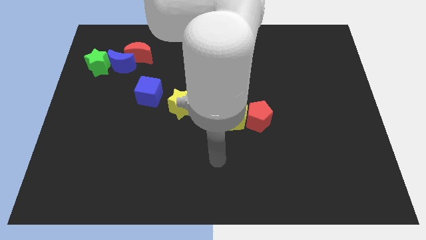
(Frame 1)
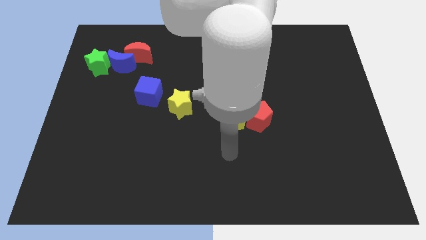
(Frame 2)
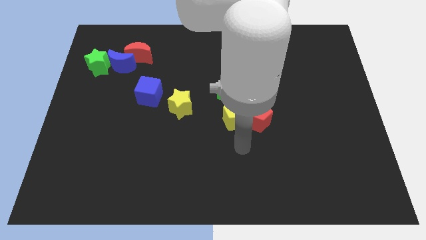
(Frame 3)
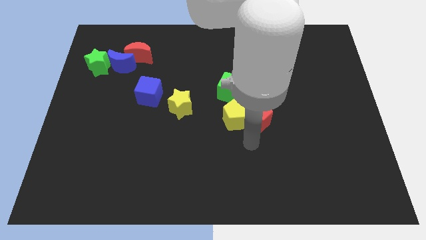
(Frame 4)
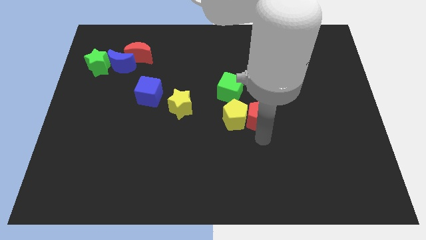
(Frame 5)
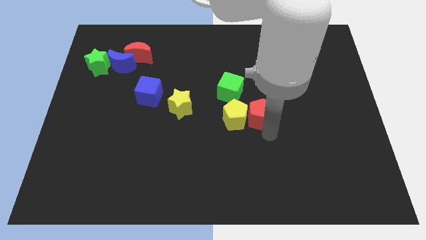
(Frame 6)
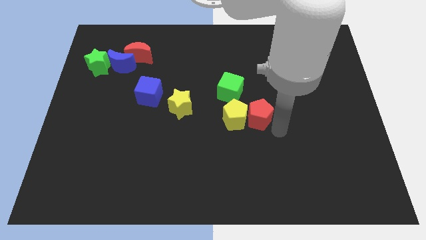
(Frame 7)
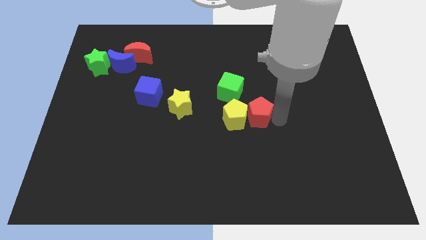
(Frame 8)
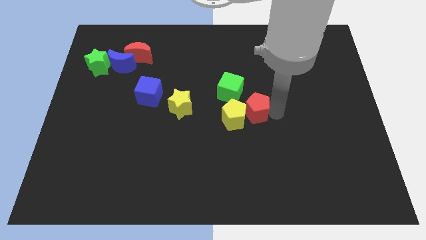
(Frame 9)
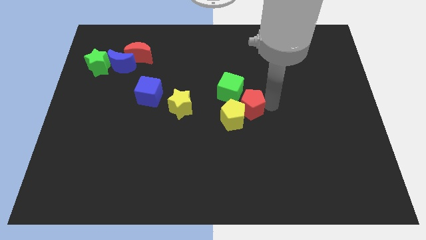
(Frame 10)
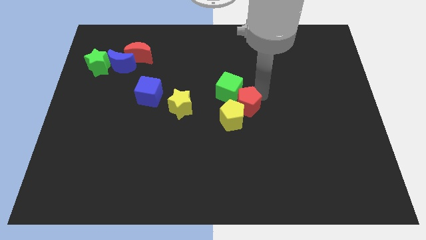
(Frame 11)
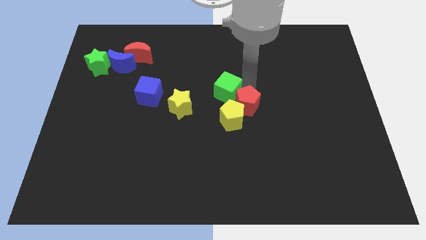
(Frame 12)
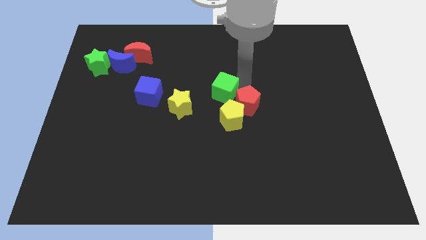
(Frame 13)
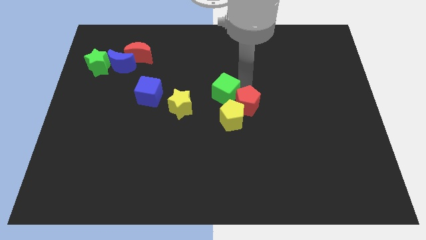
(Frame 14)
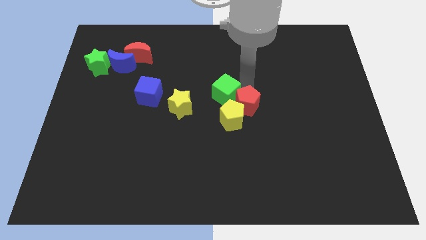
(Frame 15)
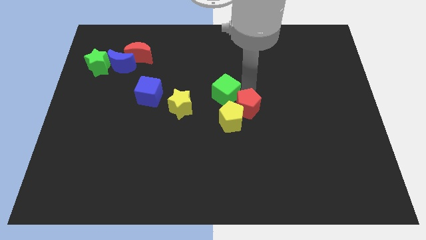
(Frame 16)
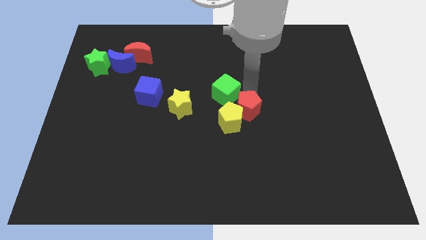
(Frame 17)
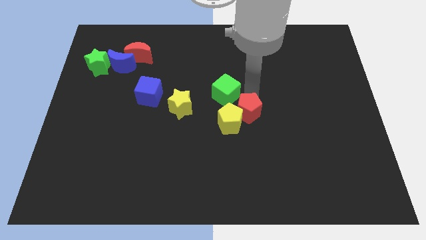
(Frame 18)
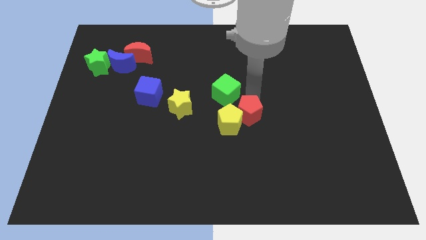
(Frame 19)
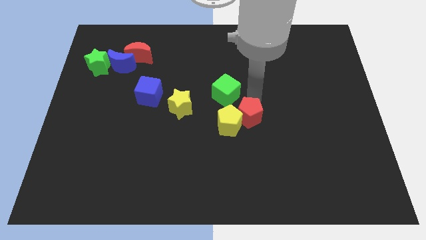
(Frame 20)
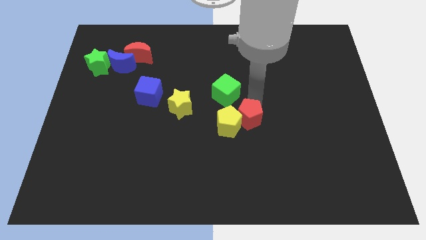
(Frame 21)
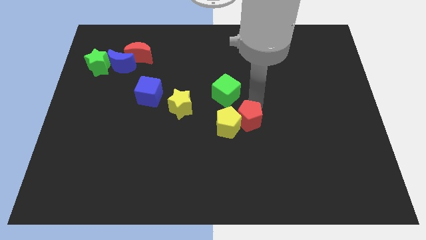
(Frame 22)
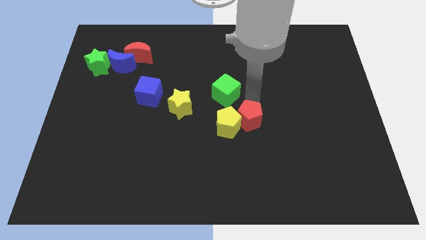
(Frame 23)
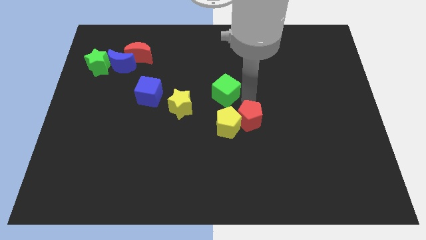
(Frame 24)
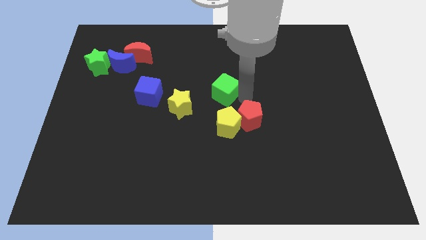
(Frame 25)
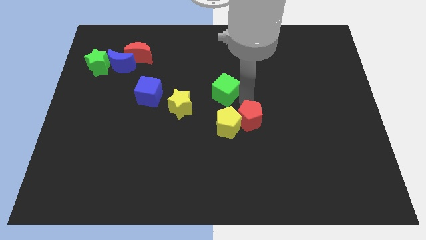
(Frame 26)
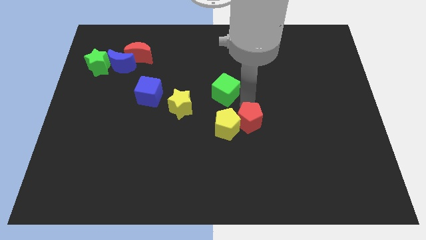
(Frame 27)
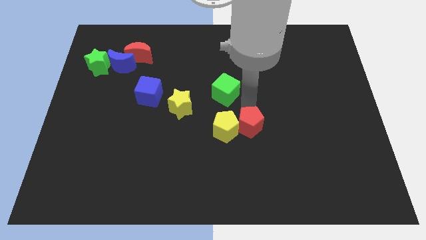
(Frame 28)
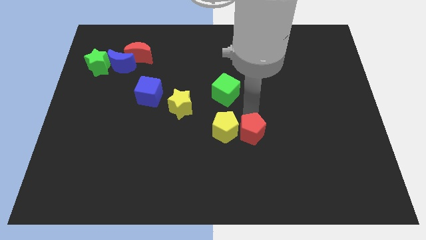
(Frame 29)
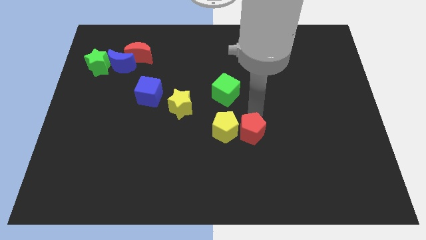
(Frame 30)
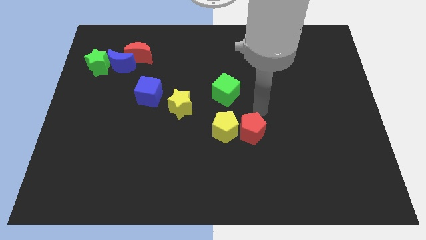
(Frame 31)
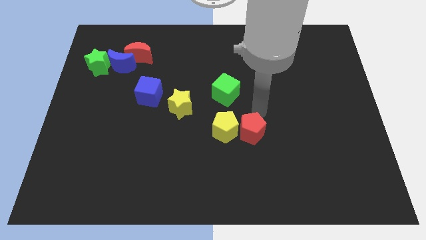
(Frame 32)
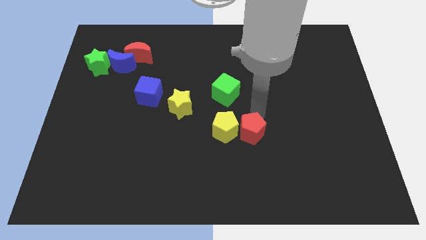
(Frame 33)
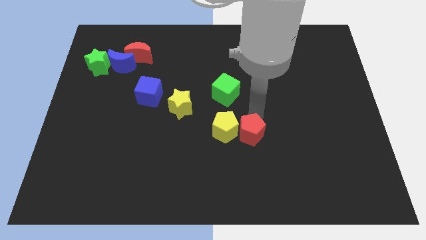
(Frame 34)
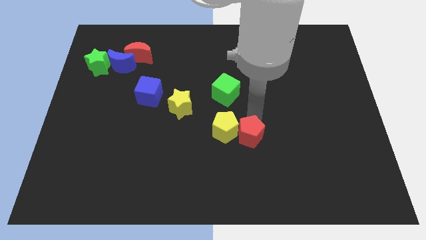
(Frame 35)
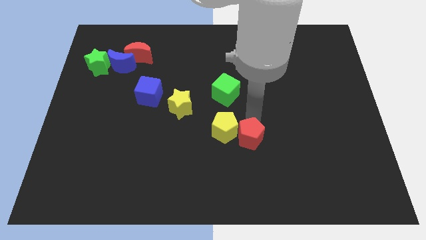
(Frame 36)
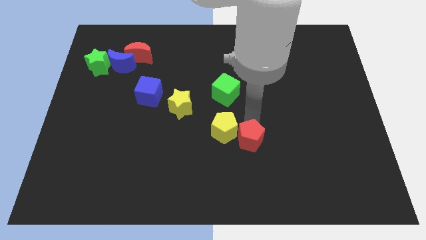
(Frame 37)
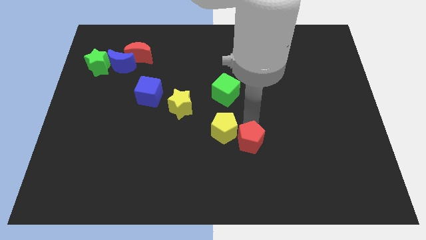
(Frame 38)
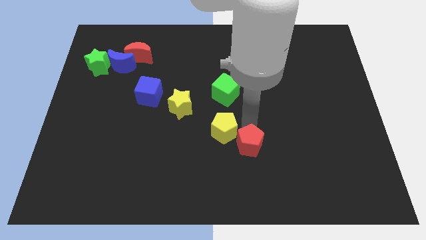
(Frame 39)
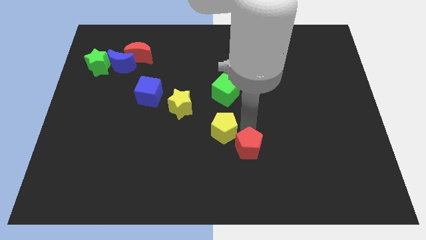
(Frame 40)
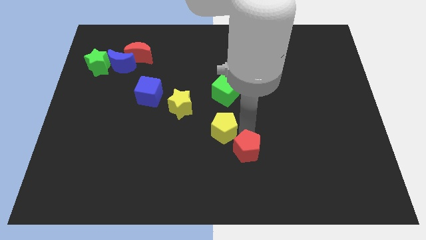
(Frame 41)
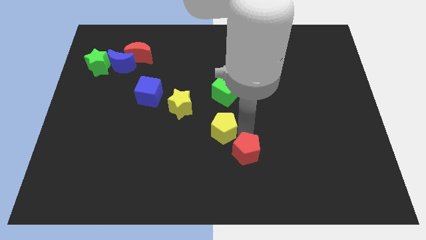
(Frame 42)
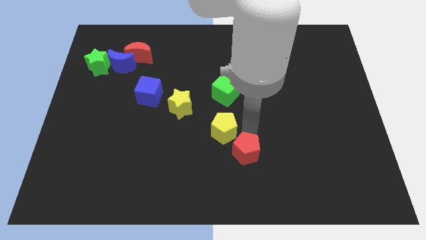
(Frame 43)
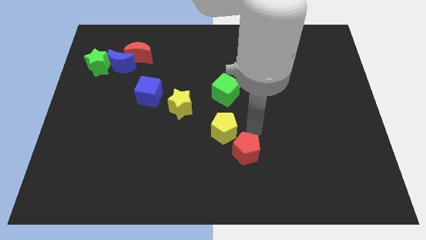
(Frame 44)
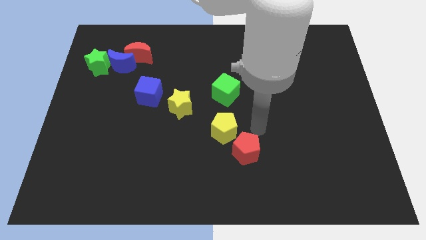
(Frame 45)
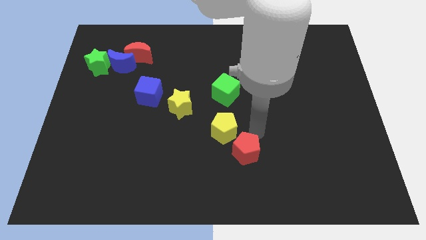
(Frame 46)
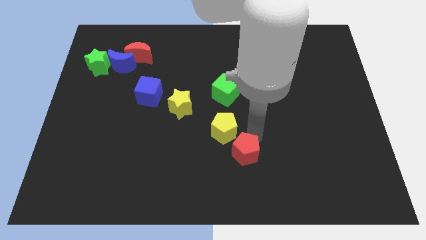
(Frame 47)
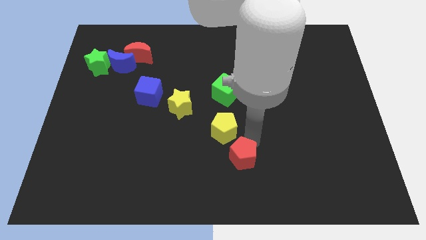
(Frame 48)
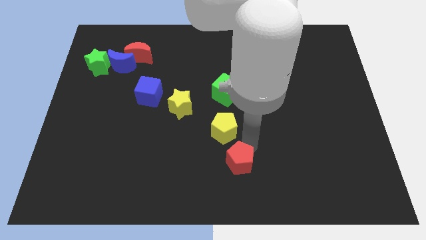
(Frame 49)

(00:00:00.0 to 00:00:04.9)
push the red pentagon to the bottom side

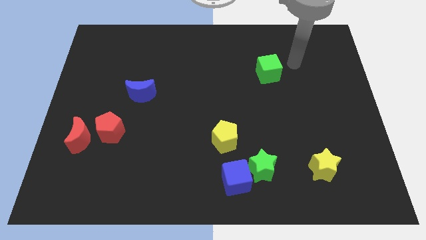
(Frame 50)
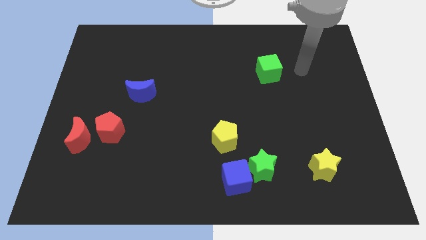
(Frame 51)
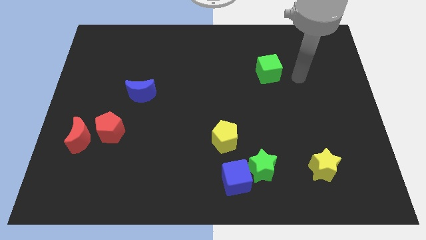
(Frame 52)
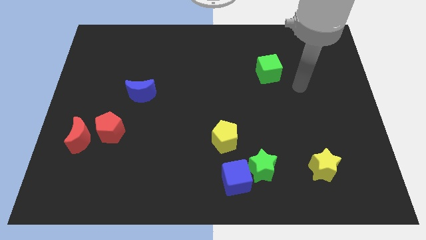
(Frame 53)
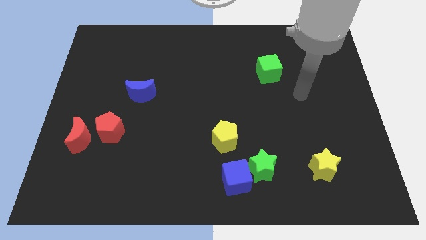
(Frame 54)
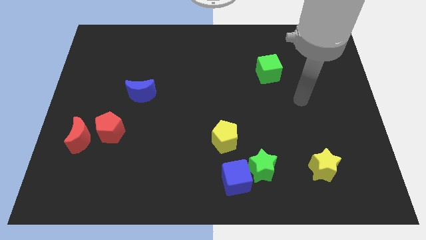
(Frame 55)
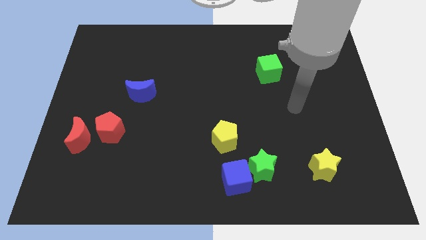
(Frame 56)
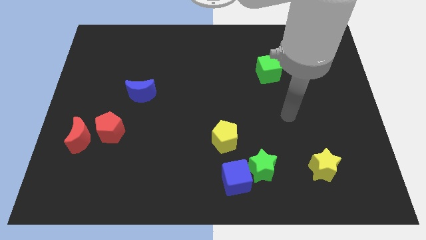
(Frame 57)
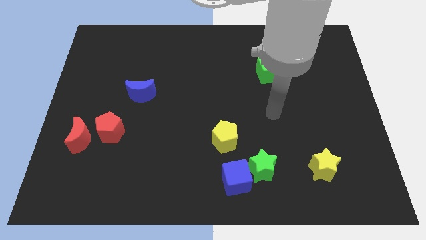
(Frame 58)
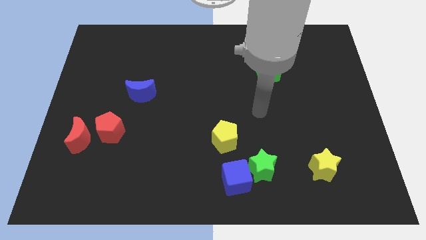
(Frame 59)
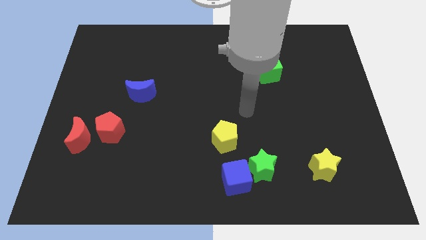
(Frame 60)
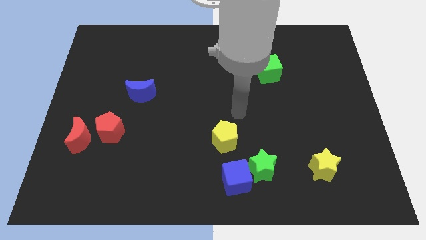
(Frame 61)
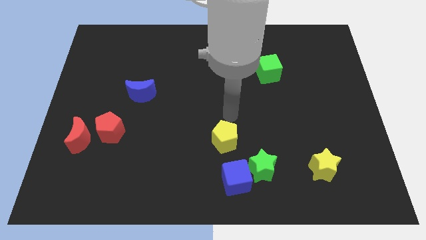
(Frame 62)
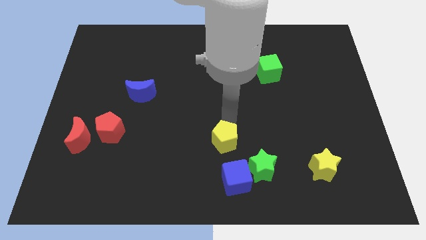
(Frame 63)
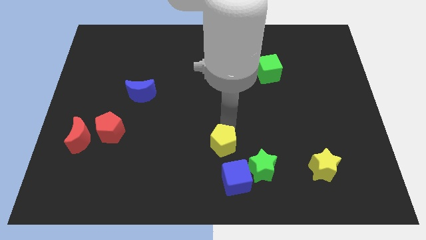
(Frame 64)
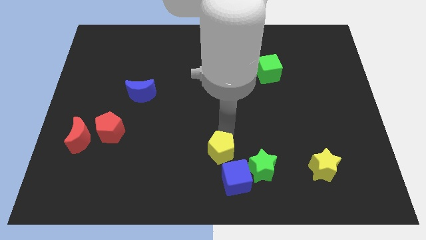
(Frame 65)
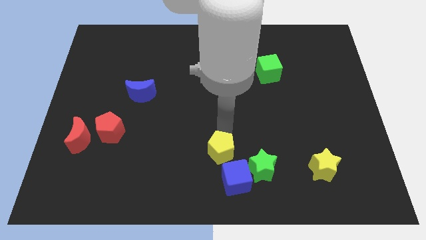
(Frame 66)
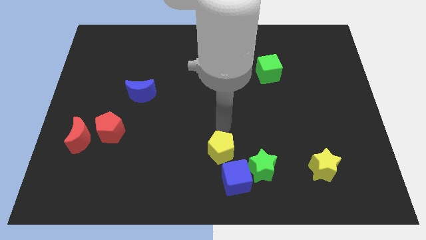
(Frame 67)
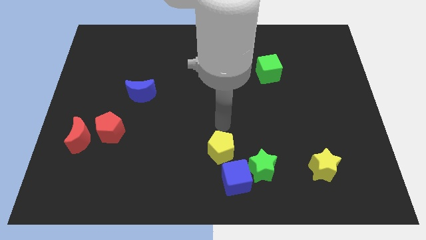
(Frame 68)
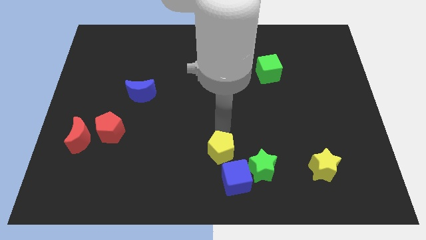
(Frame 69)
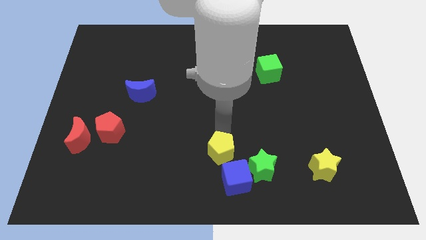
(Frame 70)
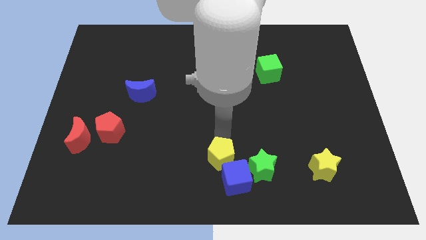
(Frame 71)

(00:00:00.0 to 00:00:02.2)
push the yellow pentagon to the bottom side
